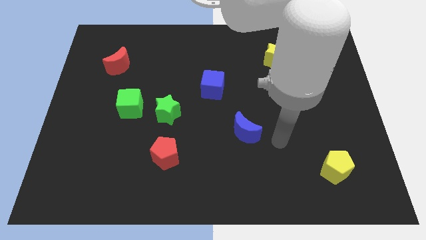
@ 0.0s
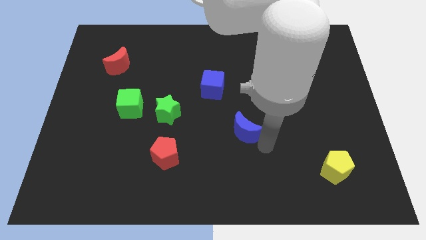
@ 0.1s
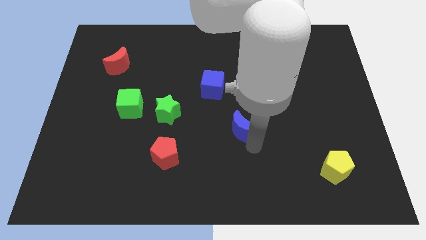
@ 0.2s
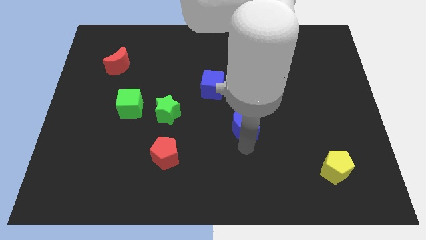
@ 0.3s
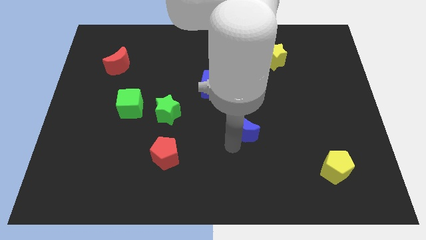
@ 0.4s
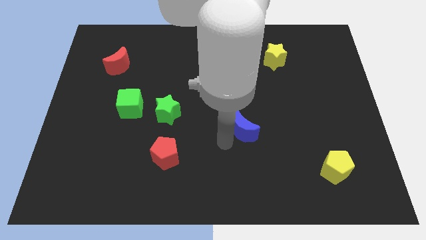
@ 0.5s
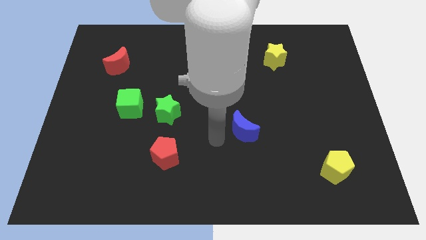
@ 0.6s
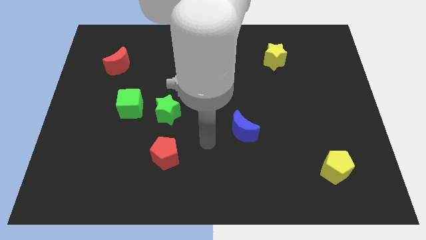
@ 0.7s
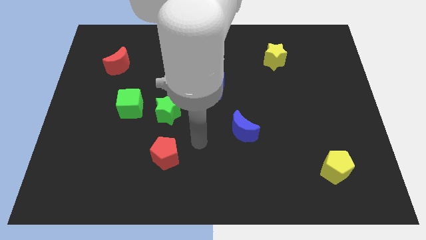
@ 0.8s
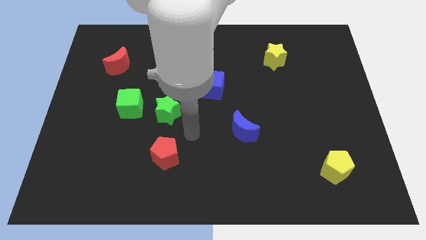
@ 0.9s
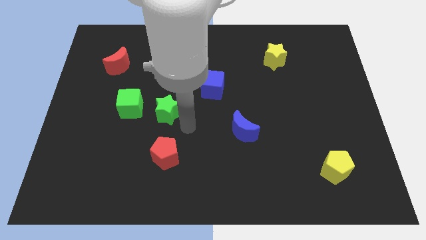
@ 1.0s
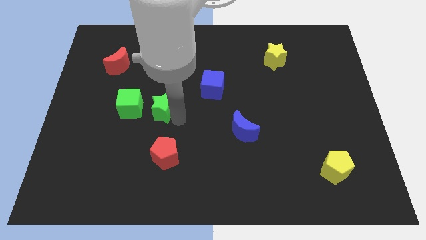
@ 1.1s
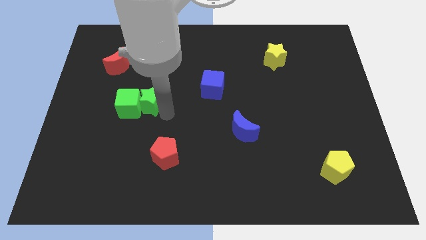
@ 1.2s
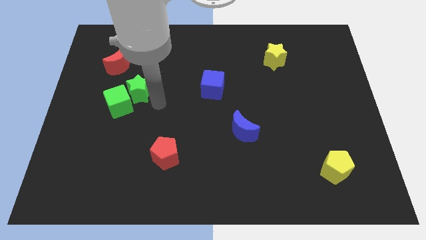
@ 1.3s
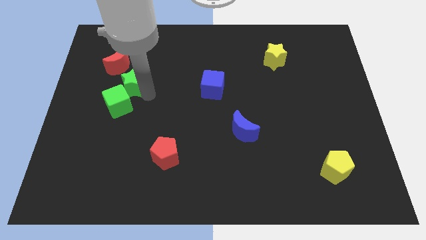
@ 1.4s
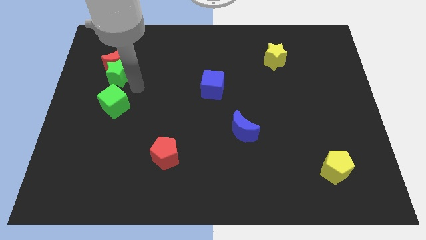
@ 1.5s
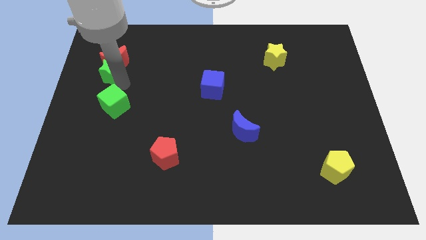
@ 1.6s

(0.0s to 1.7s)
separate the green cube from the green star

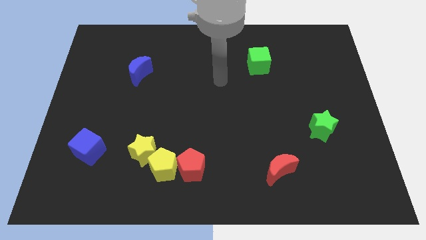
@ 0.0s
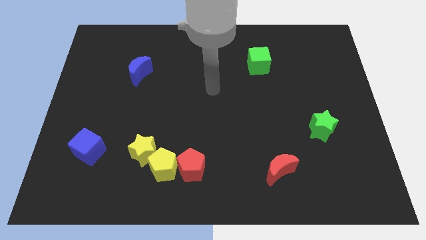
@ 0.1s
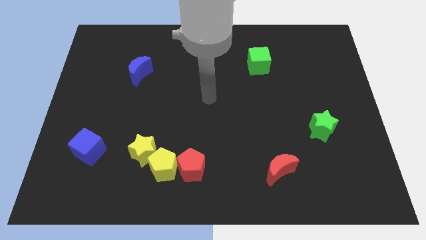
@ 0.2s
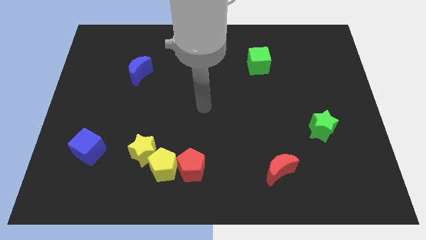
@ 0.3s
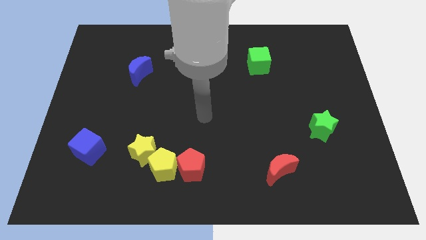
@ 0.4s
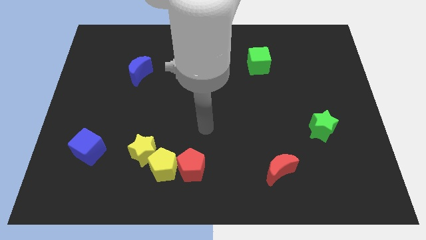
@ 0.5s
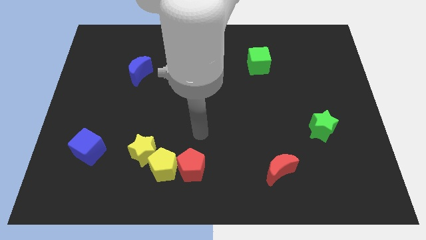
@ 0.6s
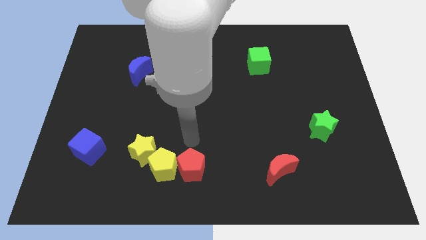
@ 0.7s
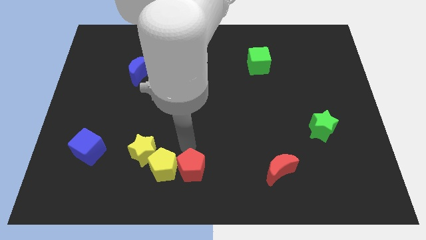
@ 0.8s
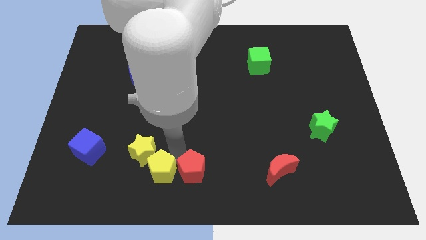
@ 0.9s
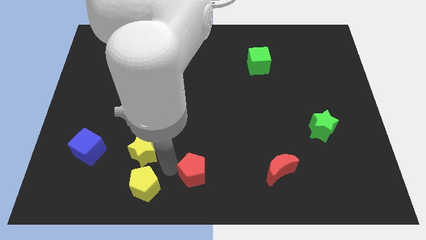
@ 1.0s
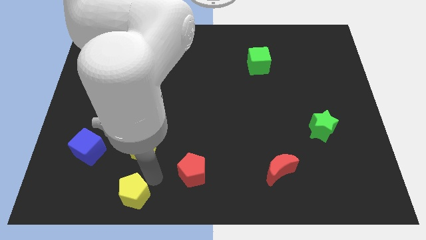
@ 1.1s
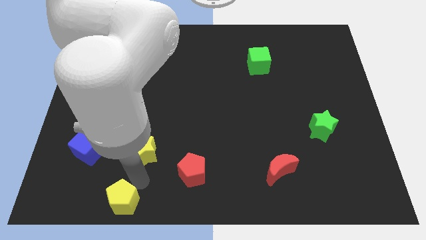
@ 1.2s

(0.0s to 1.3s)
separate the yellow star from the yellow pentagon

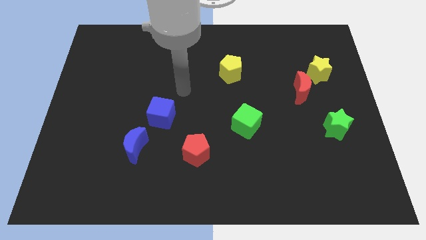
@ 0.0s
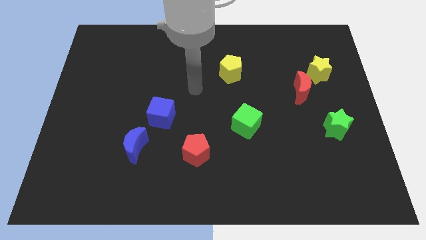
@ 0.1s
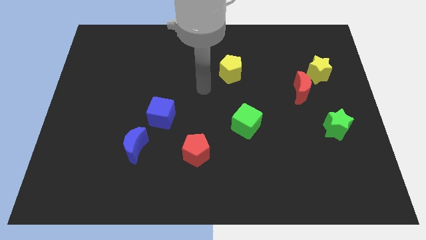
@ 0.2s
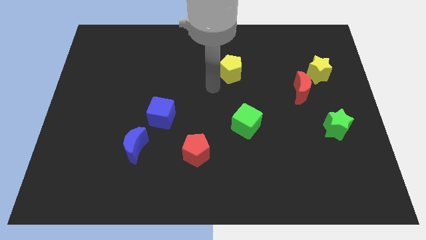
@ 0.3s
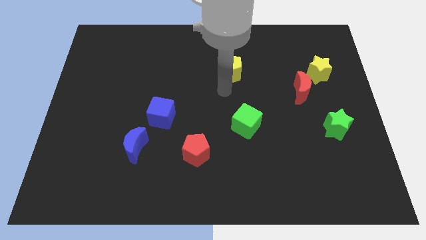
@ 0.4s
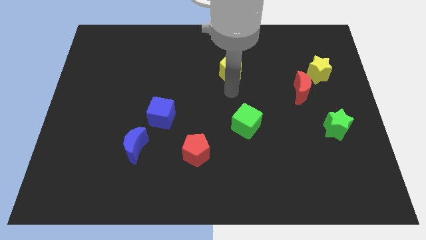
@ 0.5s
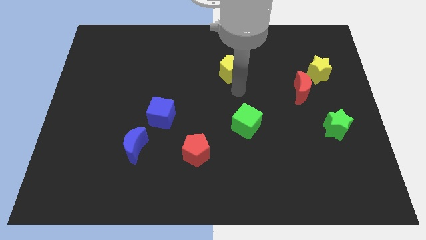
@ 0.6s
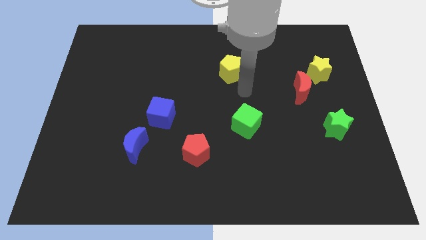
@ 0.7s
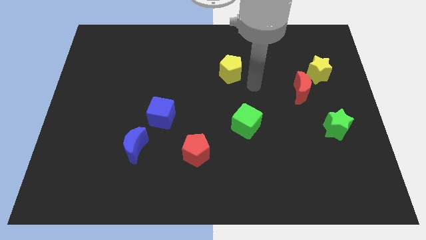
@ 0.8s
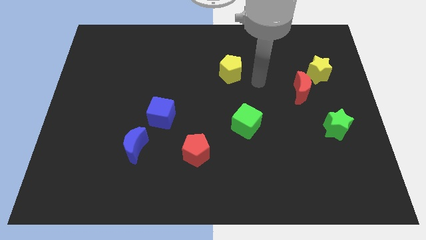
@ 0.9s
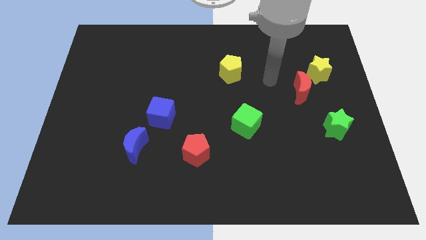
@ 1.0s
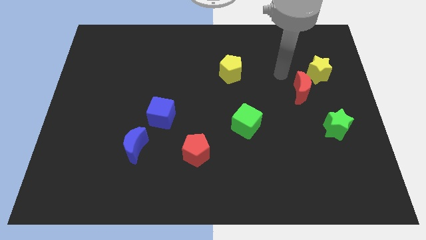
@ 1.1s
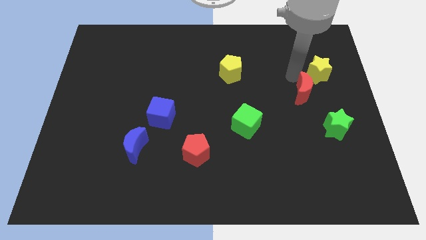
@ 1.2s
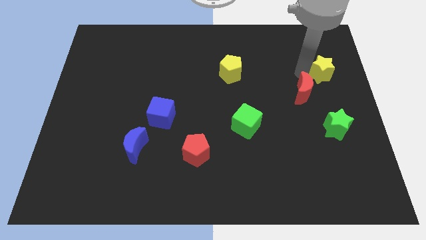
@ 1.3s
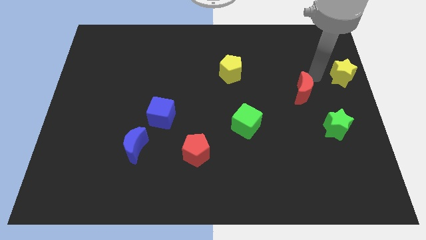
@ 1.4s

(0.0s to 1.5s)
separate the red moon from the yellow star

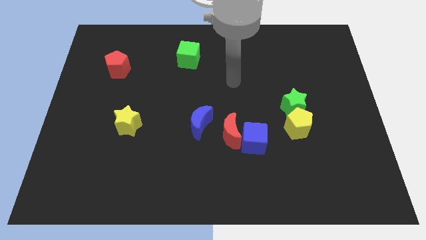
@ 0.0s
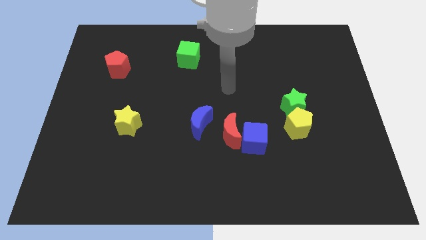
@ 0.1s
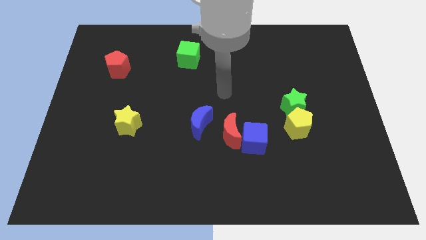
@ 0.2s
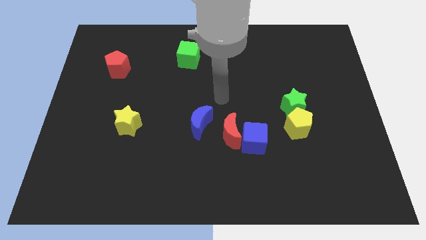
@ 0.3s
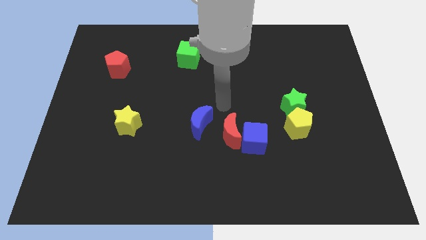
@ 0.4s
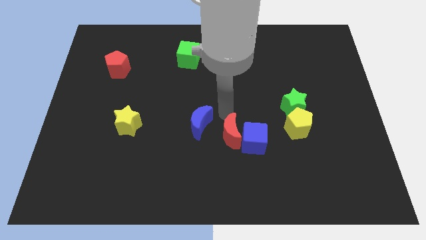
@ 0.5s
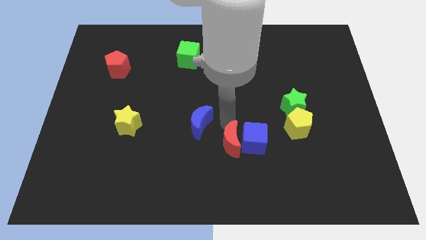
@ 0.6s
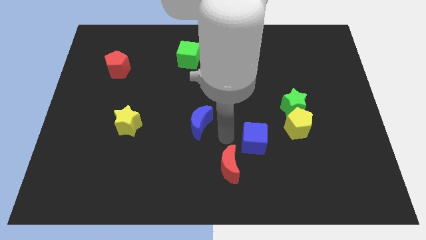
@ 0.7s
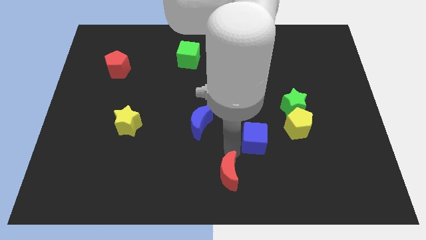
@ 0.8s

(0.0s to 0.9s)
pull the blue cube apart from the red moon

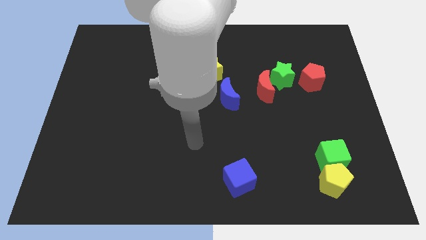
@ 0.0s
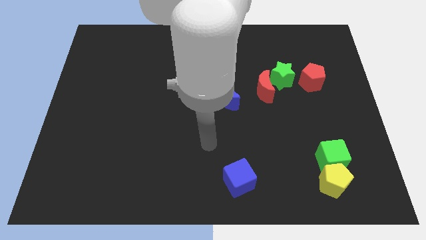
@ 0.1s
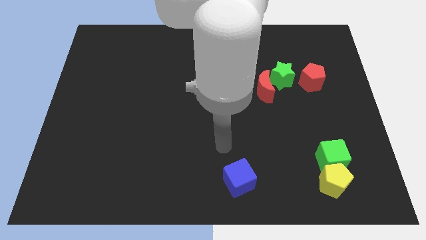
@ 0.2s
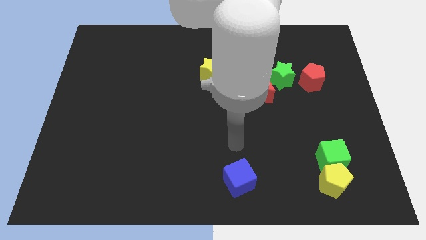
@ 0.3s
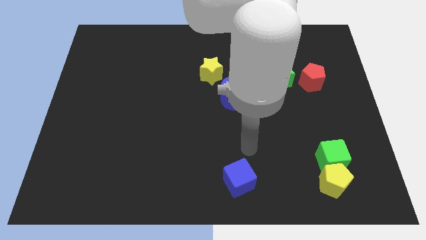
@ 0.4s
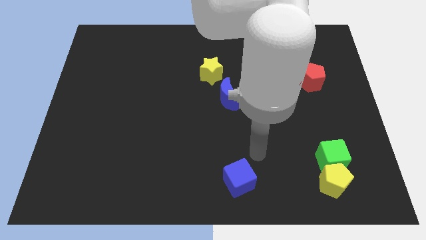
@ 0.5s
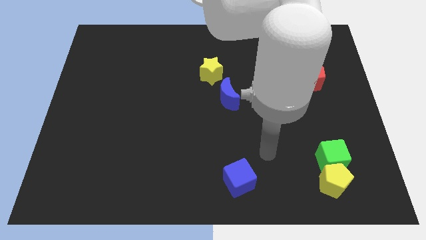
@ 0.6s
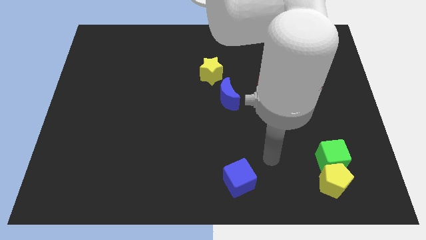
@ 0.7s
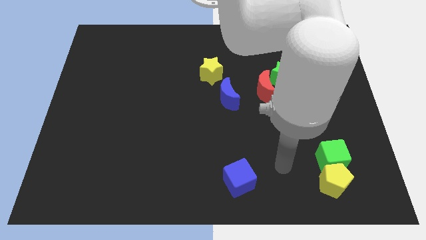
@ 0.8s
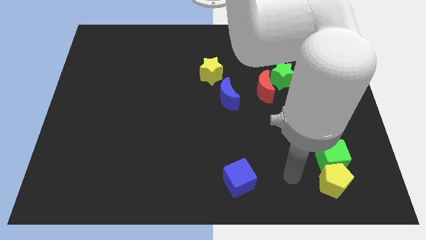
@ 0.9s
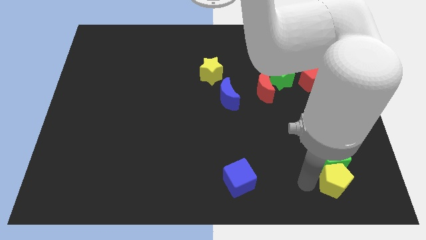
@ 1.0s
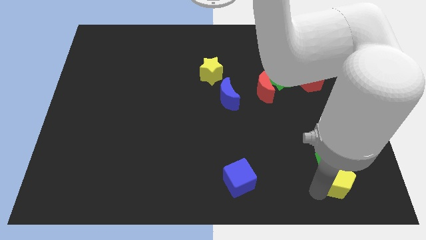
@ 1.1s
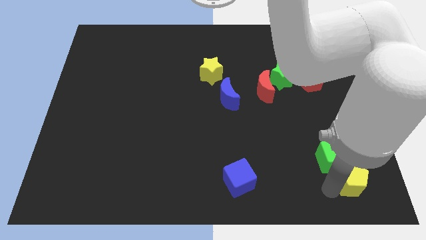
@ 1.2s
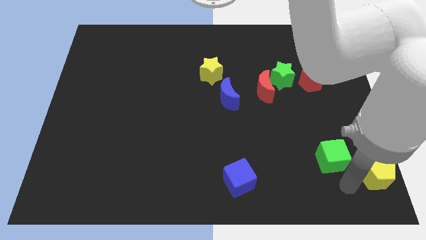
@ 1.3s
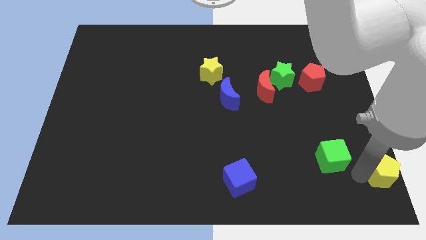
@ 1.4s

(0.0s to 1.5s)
pull the green cube apart from the yellow pentagon

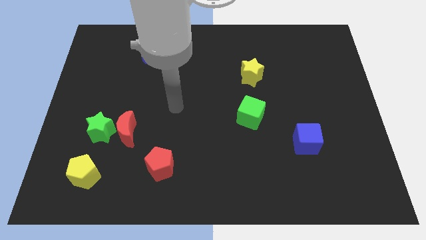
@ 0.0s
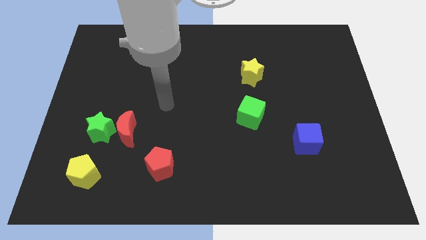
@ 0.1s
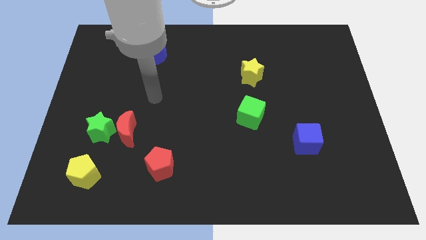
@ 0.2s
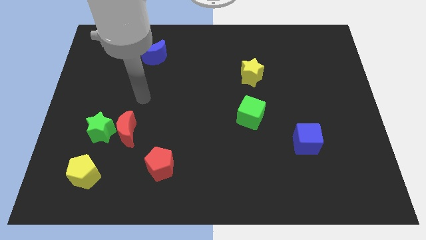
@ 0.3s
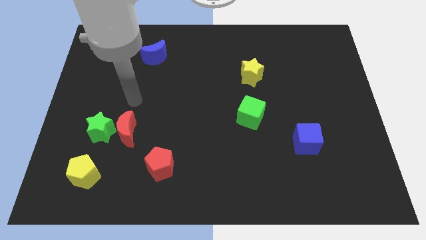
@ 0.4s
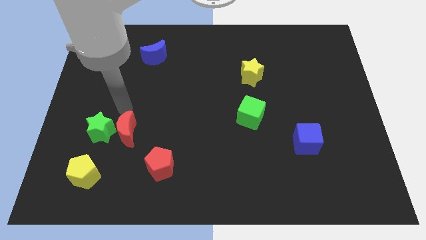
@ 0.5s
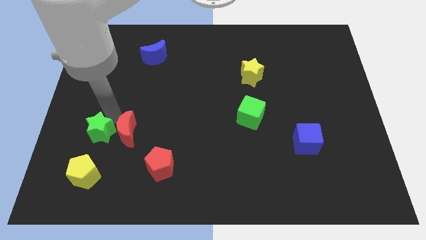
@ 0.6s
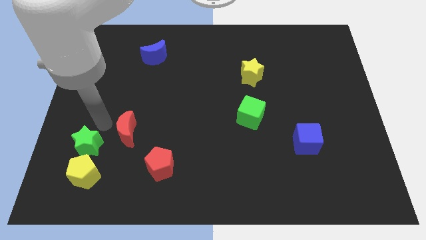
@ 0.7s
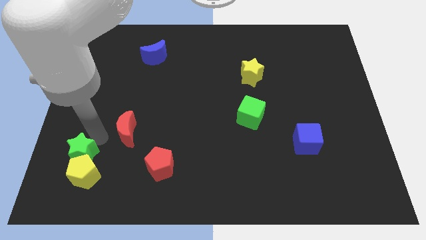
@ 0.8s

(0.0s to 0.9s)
move the red moon away from the green star

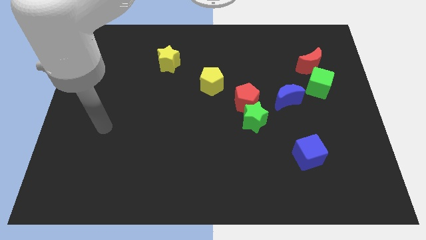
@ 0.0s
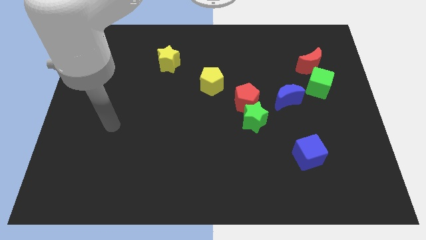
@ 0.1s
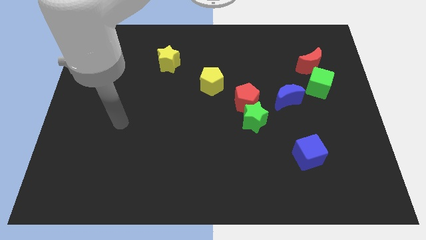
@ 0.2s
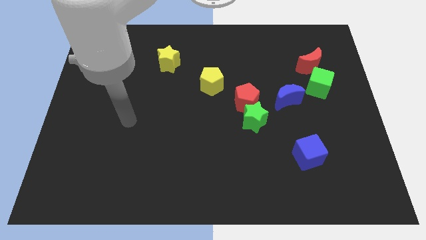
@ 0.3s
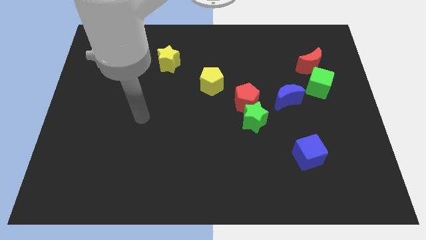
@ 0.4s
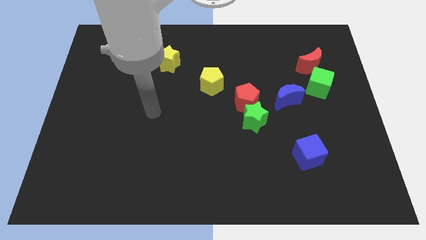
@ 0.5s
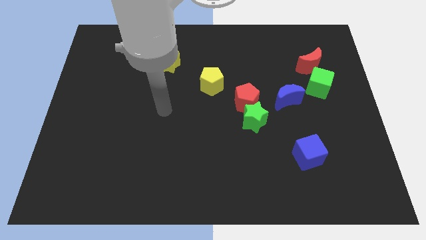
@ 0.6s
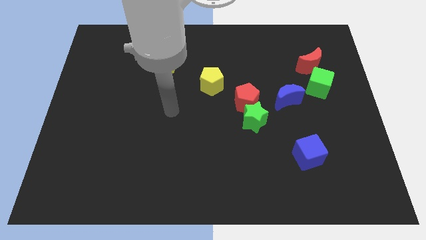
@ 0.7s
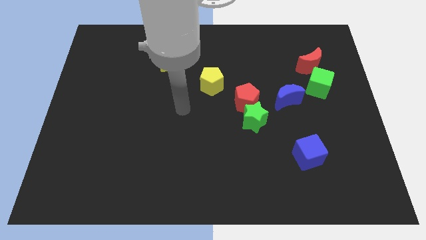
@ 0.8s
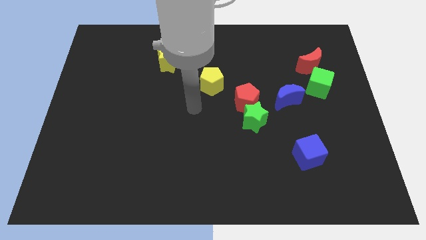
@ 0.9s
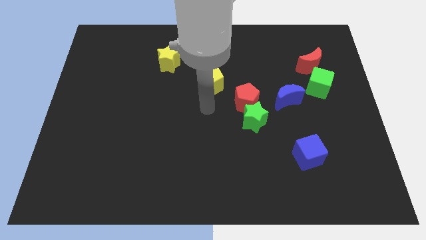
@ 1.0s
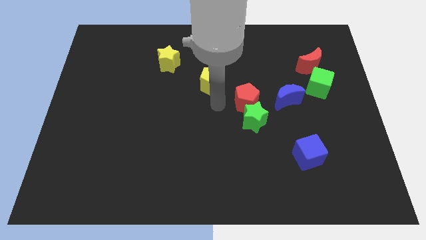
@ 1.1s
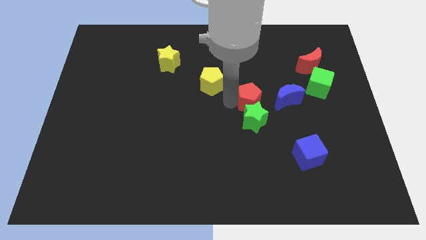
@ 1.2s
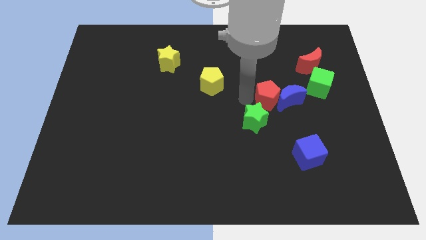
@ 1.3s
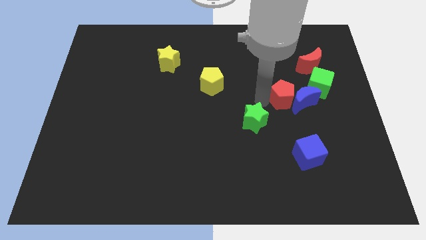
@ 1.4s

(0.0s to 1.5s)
move the green star away from the red pentagon
